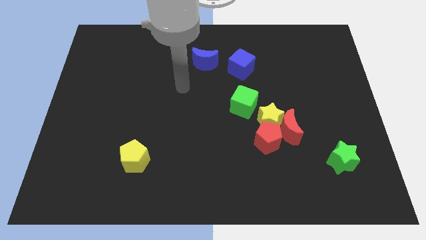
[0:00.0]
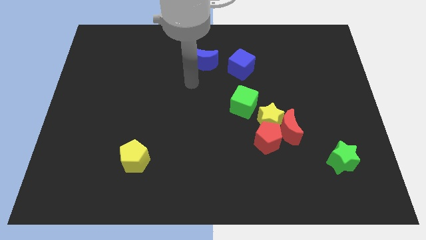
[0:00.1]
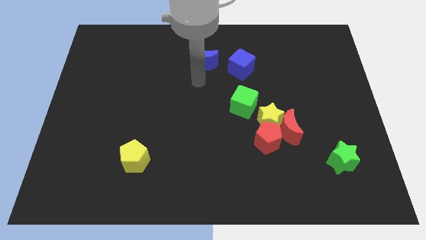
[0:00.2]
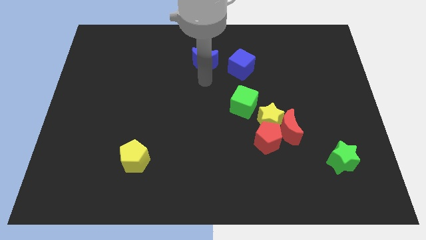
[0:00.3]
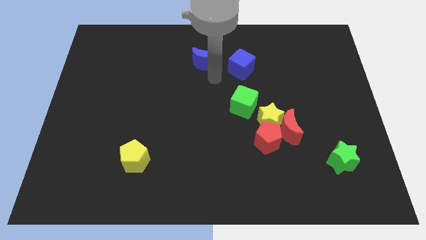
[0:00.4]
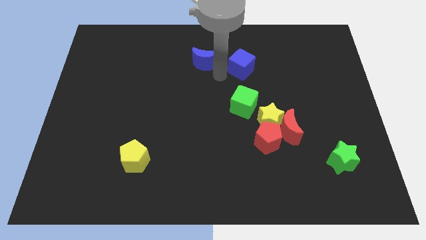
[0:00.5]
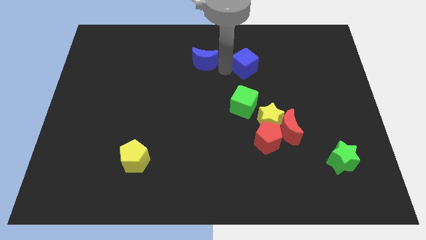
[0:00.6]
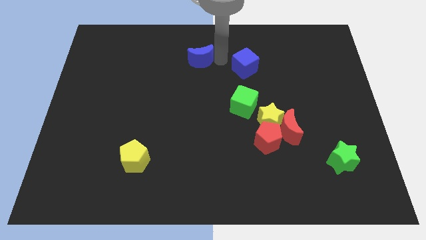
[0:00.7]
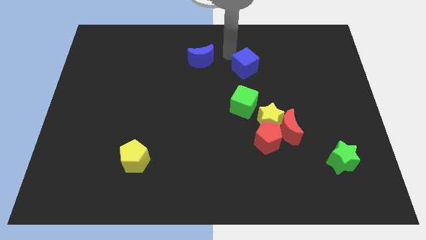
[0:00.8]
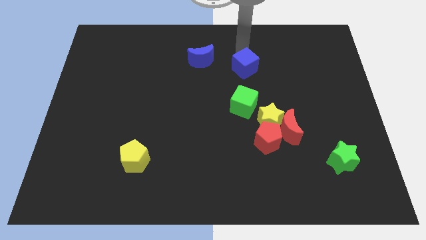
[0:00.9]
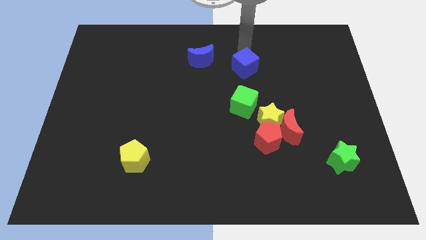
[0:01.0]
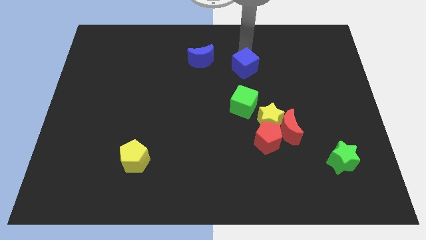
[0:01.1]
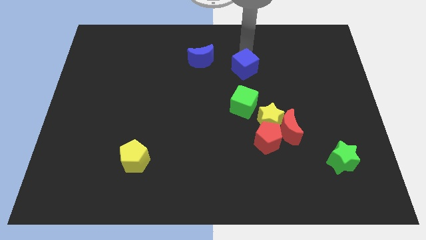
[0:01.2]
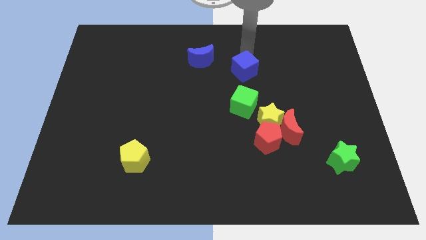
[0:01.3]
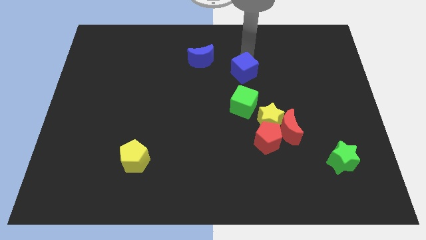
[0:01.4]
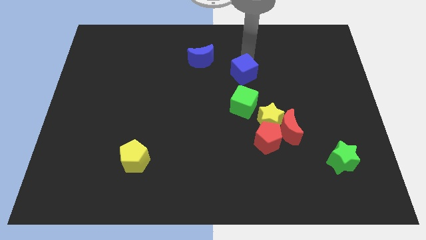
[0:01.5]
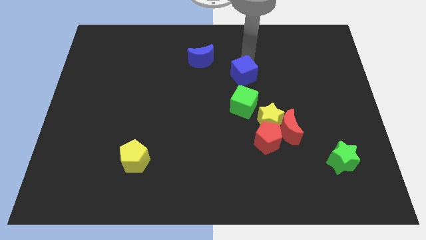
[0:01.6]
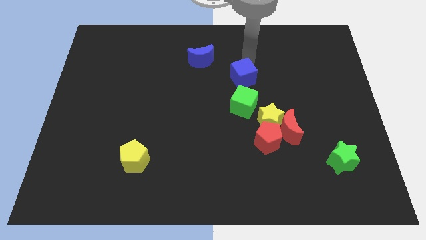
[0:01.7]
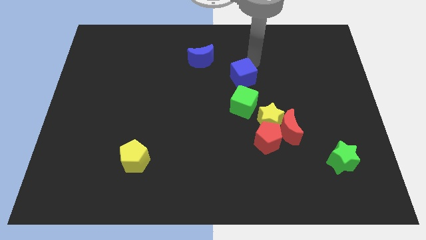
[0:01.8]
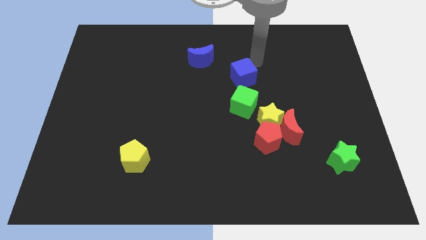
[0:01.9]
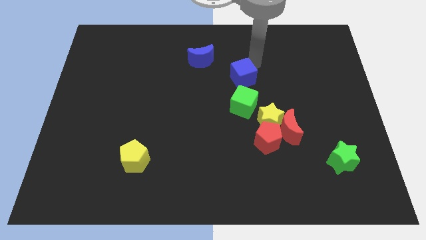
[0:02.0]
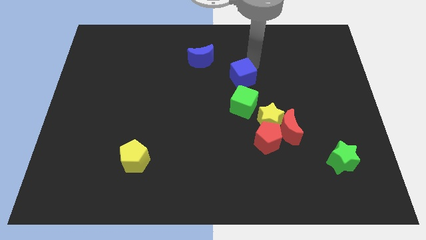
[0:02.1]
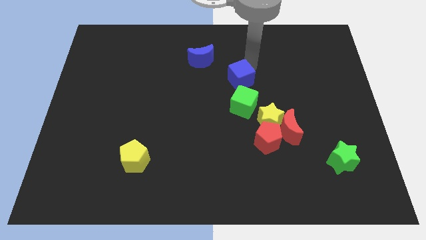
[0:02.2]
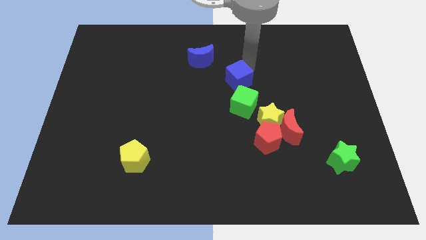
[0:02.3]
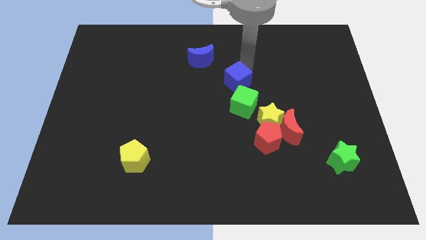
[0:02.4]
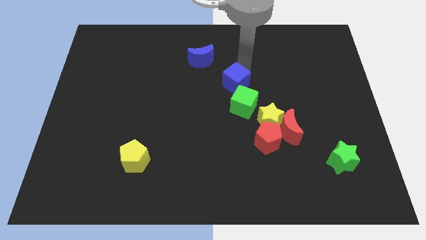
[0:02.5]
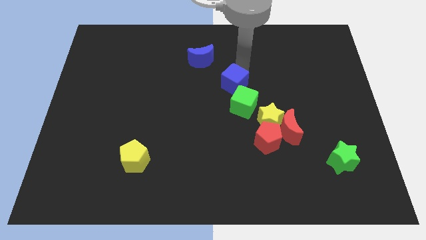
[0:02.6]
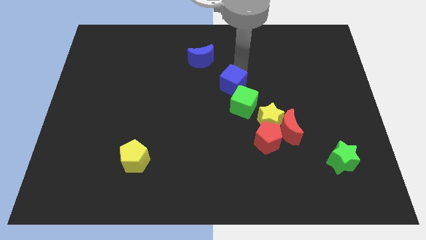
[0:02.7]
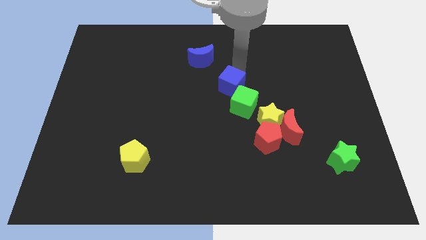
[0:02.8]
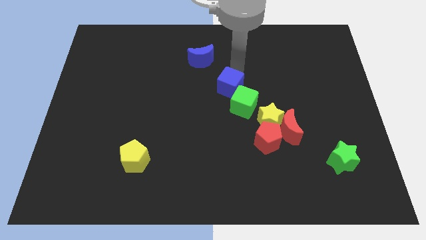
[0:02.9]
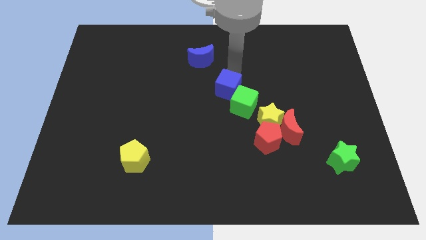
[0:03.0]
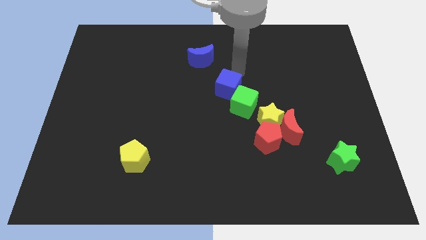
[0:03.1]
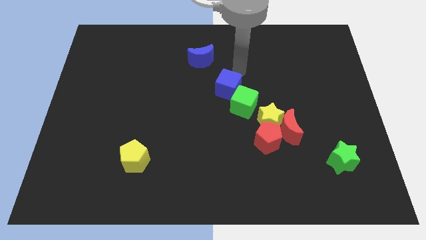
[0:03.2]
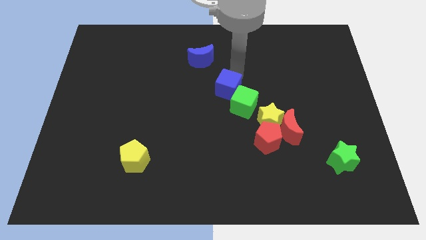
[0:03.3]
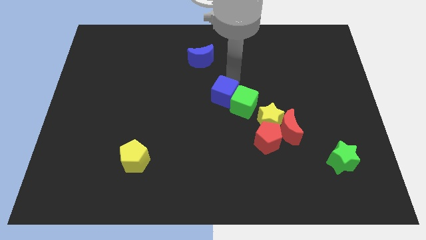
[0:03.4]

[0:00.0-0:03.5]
slide the blue cube down a bit

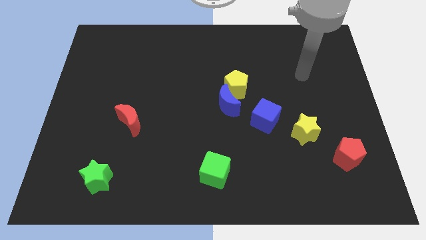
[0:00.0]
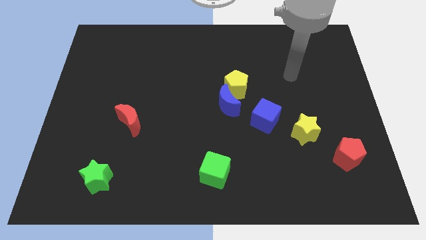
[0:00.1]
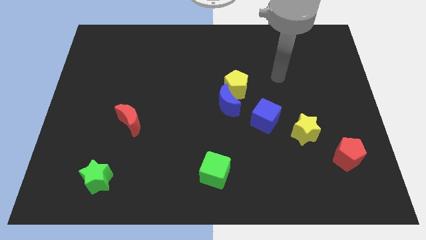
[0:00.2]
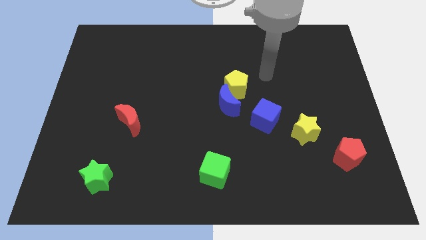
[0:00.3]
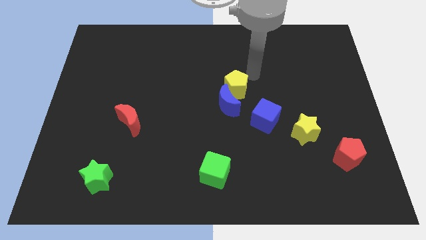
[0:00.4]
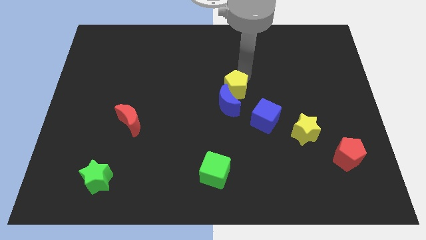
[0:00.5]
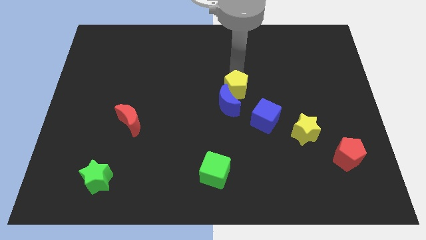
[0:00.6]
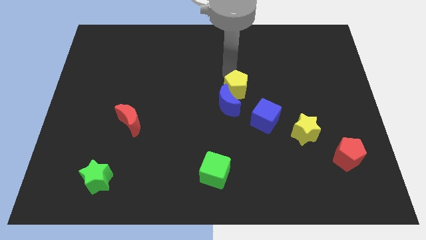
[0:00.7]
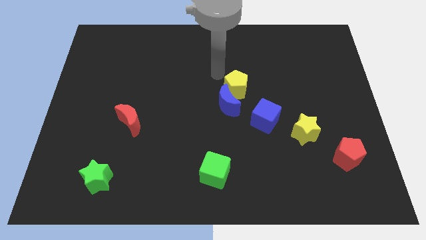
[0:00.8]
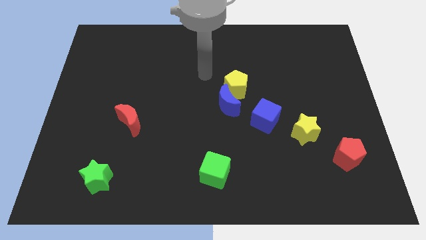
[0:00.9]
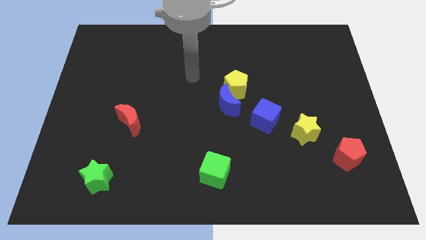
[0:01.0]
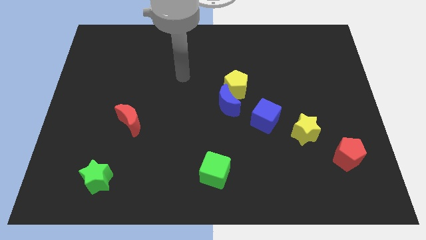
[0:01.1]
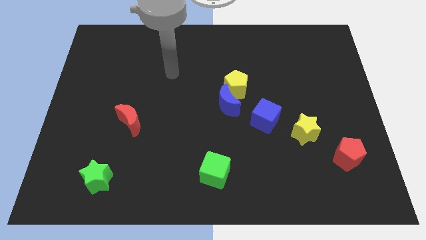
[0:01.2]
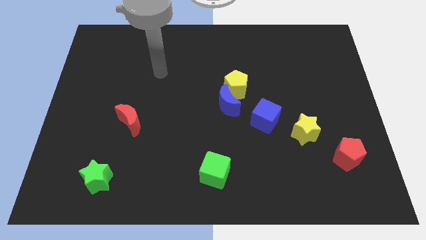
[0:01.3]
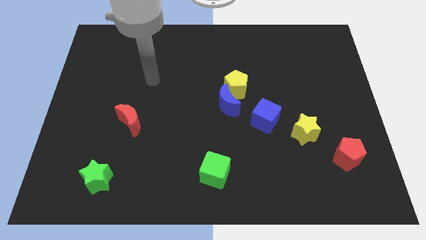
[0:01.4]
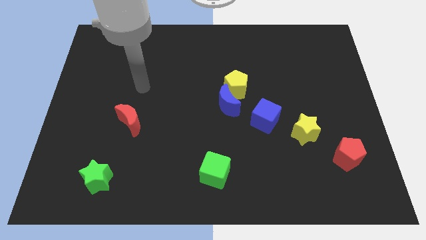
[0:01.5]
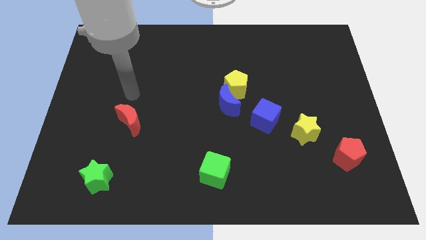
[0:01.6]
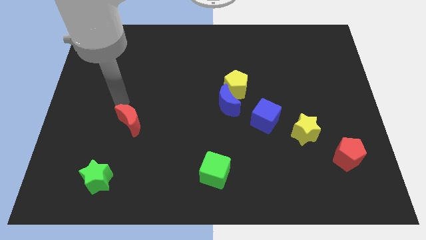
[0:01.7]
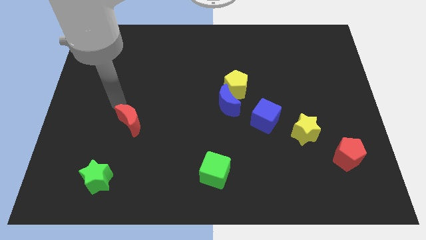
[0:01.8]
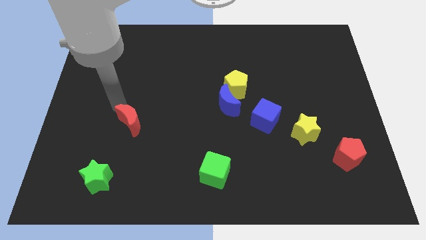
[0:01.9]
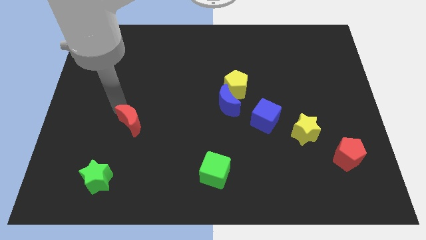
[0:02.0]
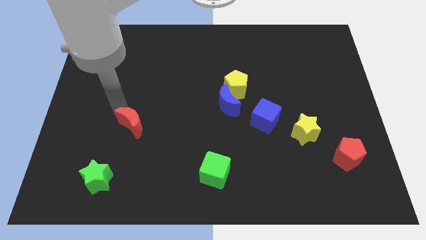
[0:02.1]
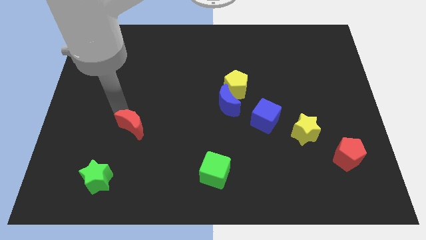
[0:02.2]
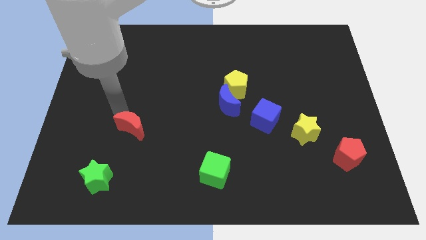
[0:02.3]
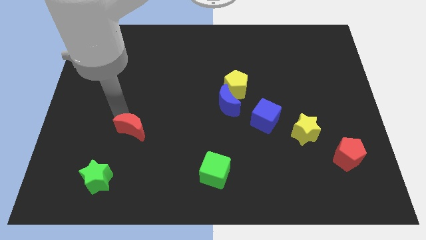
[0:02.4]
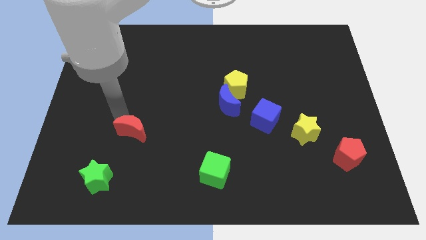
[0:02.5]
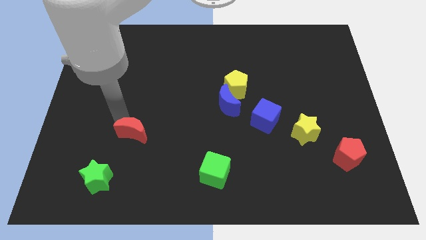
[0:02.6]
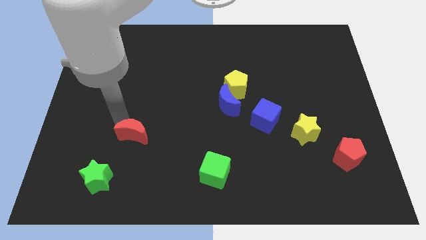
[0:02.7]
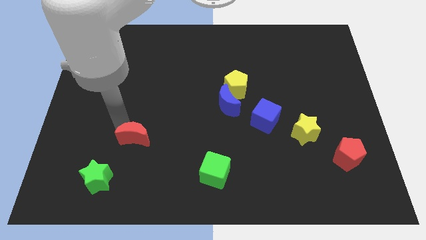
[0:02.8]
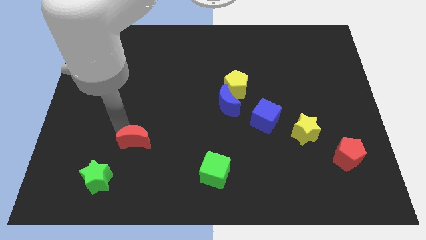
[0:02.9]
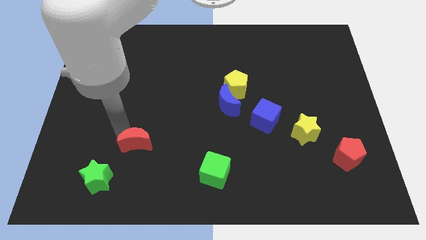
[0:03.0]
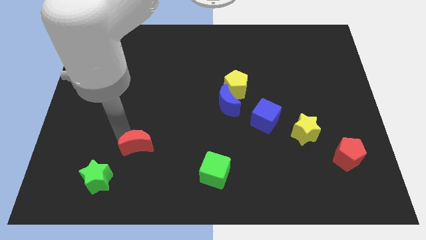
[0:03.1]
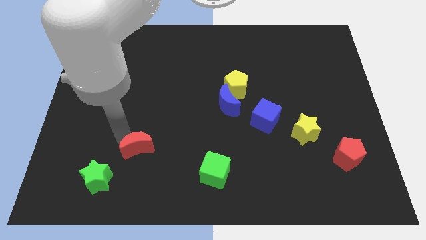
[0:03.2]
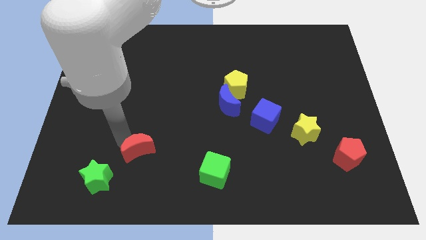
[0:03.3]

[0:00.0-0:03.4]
slightly move the red moon diagonally down and to the right

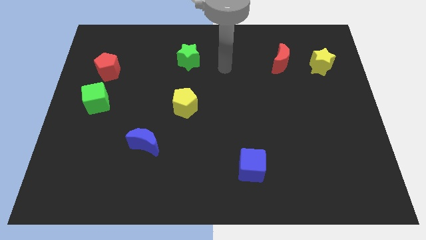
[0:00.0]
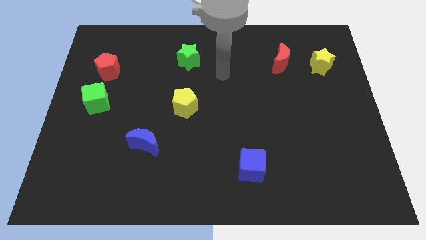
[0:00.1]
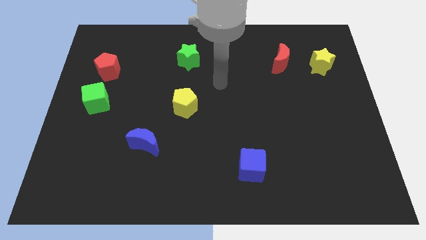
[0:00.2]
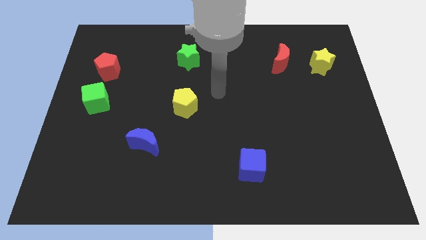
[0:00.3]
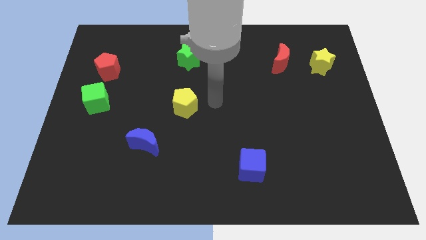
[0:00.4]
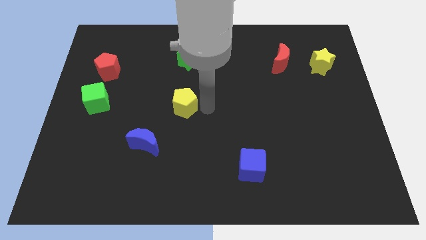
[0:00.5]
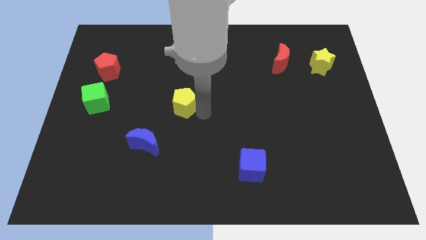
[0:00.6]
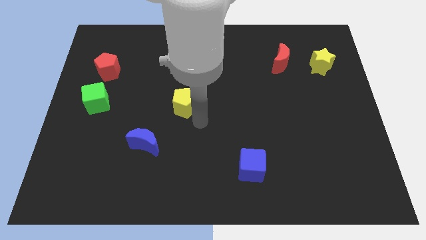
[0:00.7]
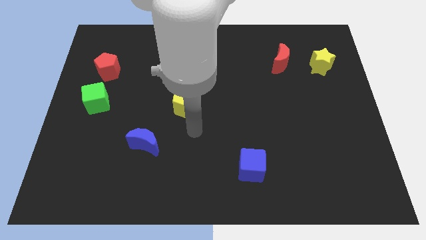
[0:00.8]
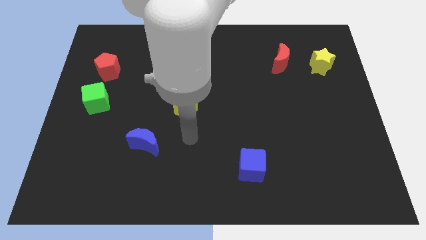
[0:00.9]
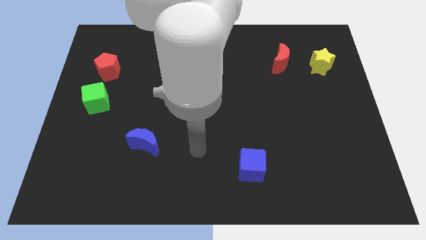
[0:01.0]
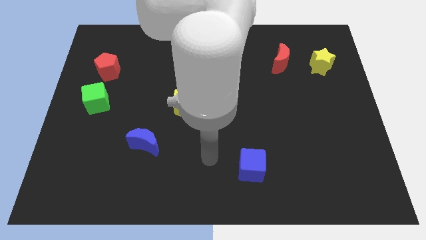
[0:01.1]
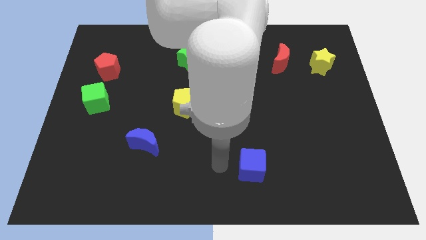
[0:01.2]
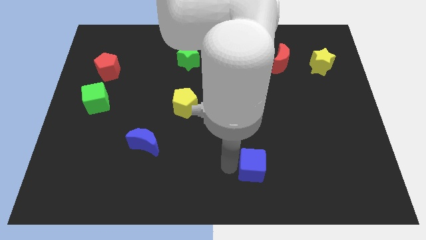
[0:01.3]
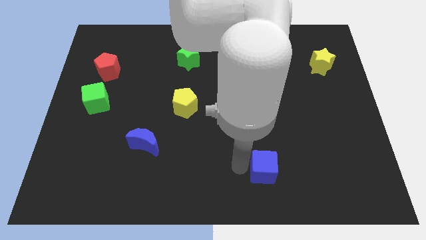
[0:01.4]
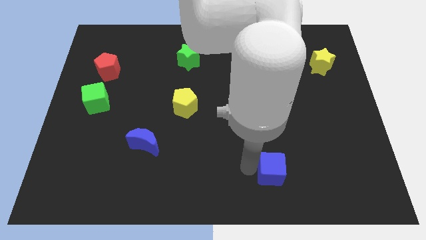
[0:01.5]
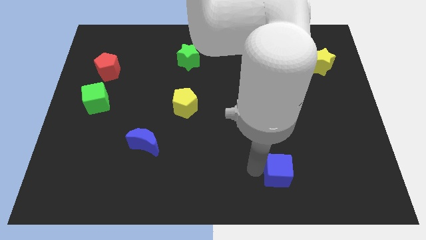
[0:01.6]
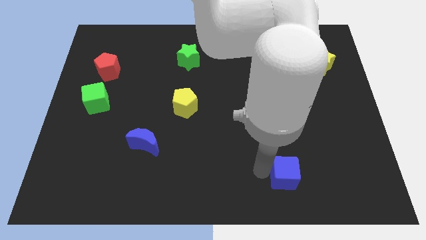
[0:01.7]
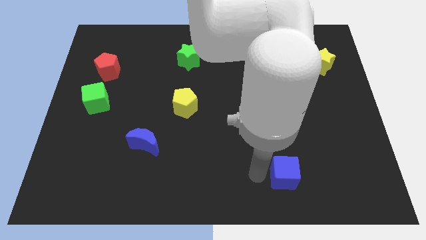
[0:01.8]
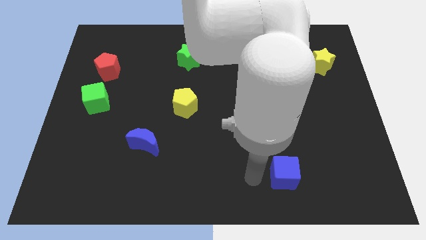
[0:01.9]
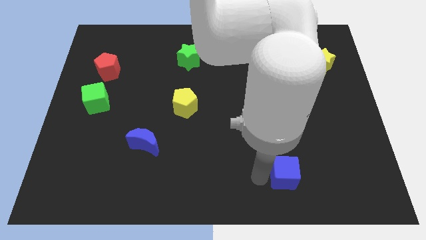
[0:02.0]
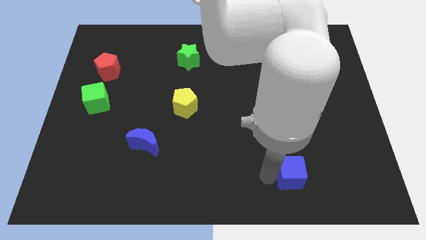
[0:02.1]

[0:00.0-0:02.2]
move the blue cube to the right slightly
